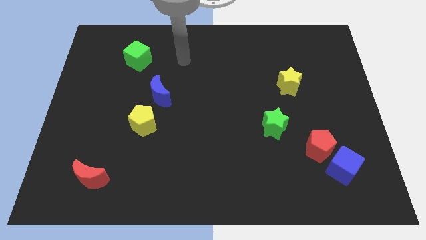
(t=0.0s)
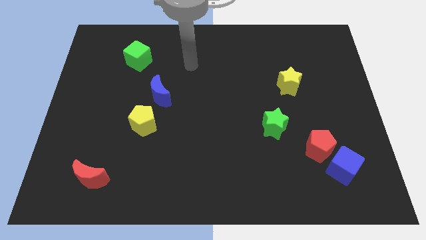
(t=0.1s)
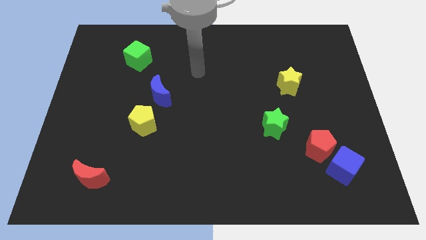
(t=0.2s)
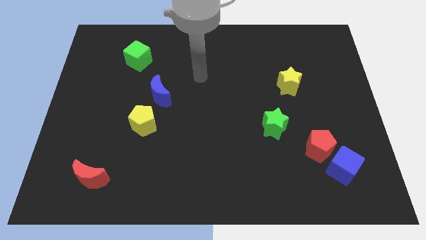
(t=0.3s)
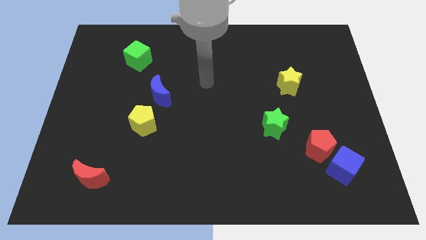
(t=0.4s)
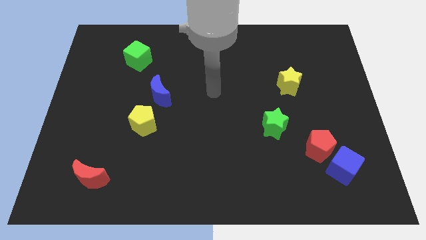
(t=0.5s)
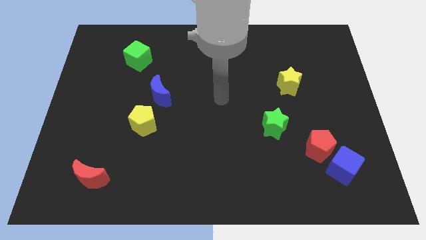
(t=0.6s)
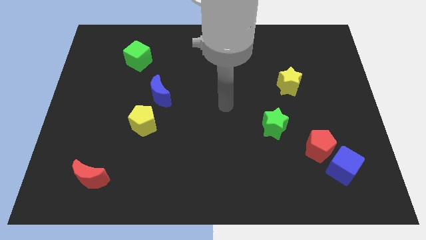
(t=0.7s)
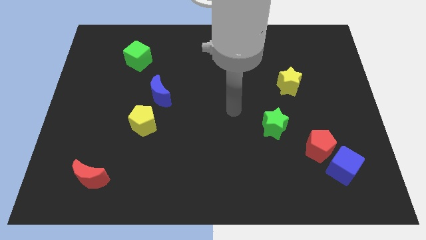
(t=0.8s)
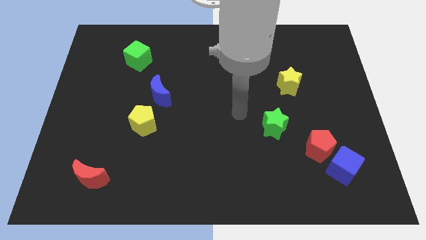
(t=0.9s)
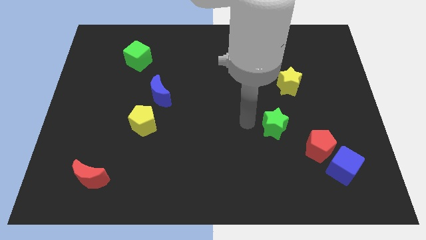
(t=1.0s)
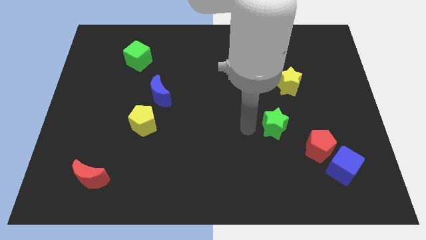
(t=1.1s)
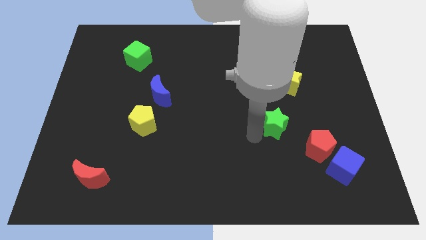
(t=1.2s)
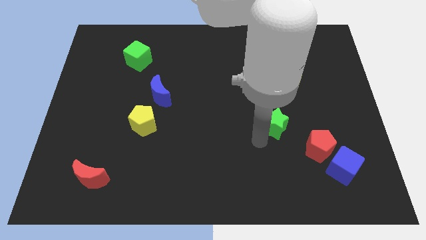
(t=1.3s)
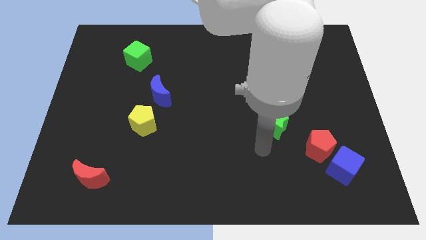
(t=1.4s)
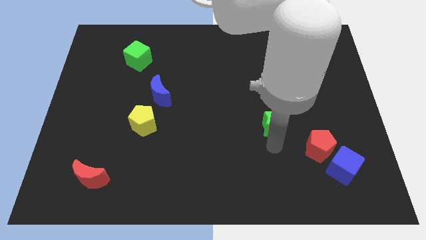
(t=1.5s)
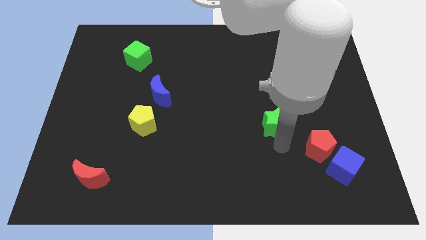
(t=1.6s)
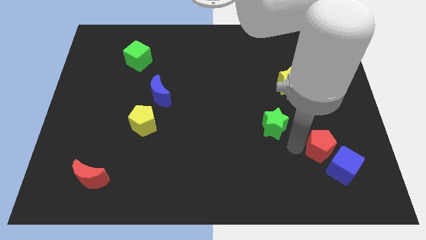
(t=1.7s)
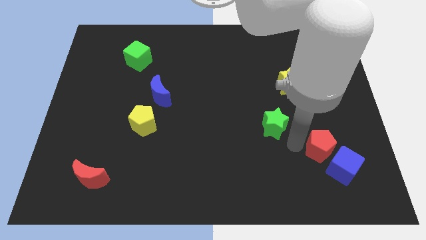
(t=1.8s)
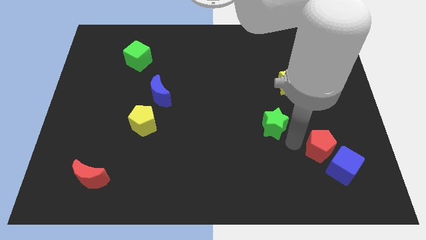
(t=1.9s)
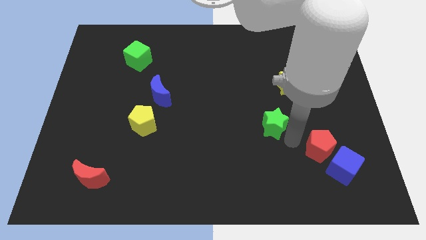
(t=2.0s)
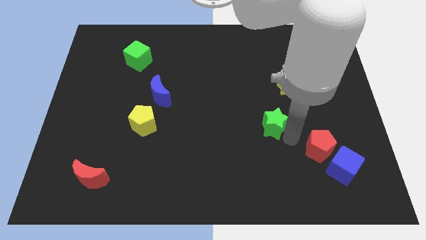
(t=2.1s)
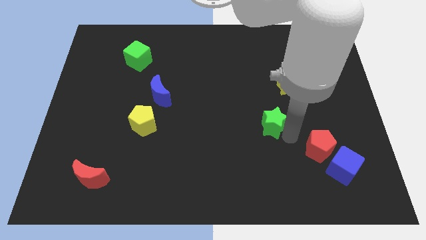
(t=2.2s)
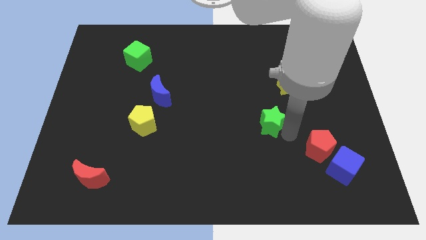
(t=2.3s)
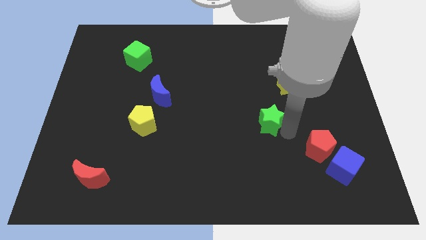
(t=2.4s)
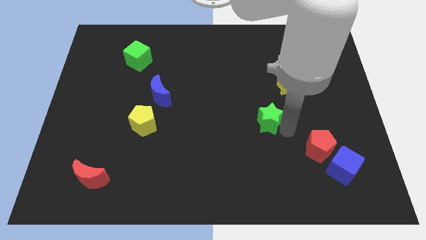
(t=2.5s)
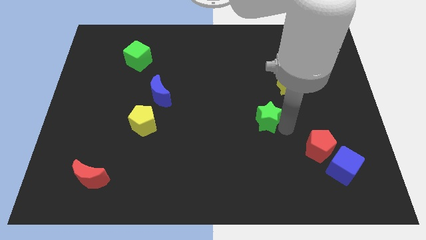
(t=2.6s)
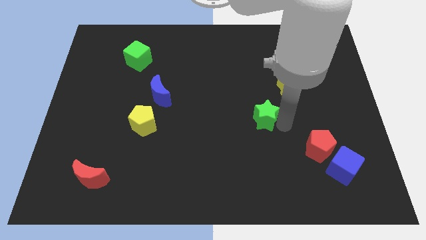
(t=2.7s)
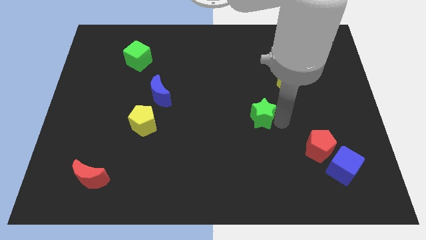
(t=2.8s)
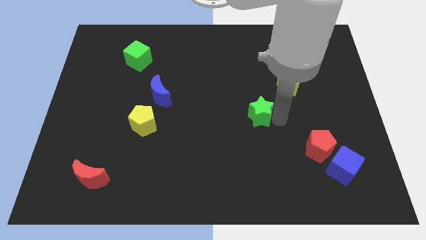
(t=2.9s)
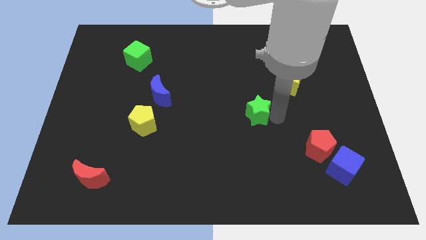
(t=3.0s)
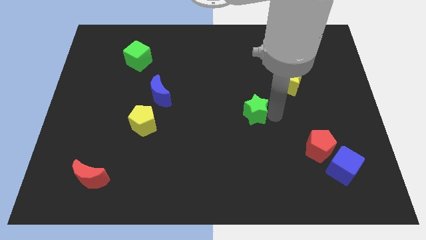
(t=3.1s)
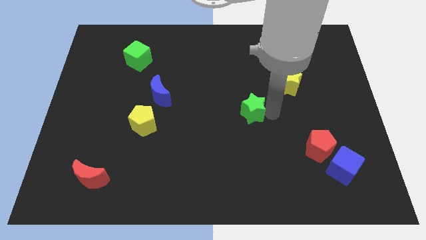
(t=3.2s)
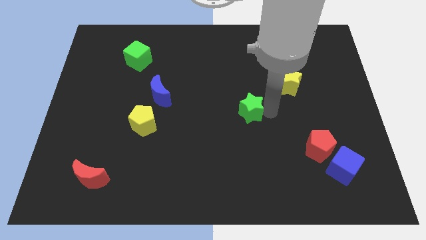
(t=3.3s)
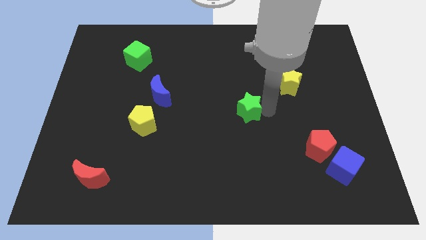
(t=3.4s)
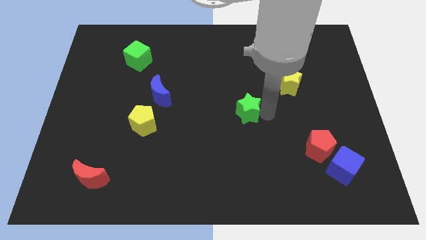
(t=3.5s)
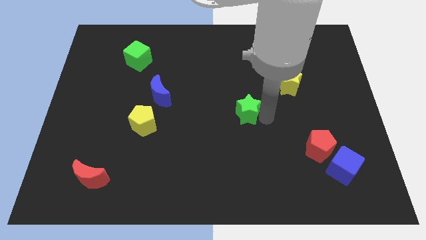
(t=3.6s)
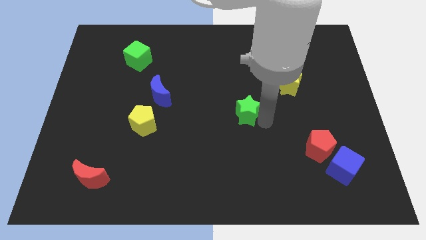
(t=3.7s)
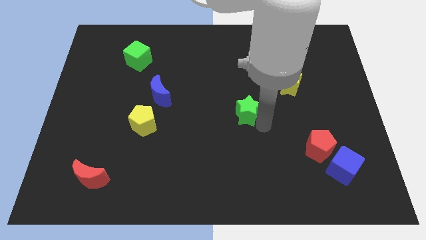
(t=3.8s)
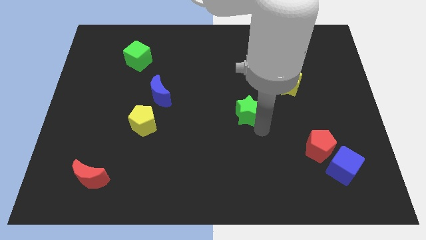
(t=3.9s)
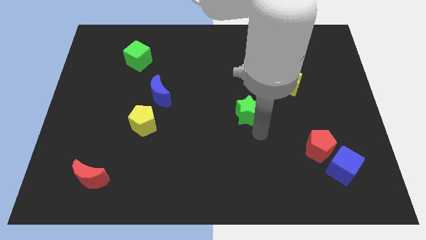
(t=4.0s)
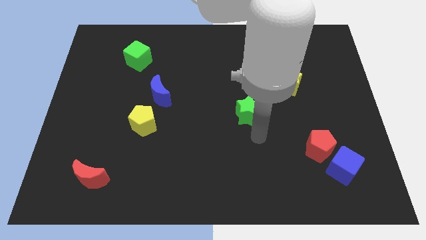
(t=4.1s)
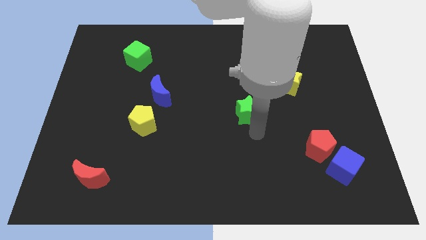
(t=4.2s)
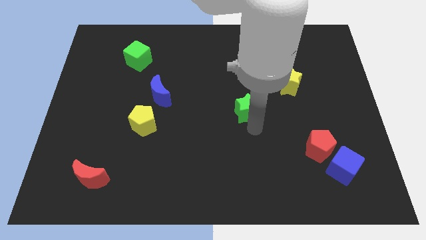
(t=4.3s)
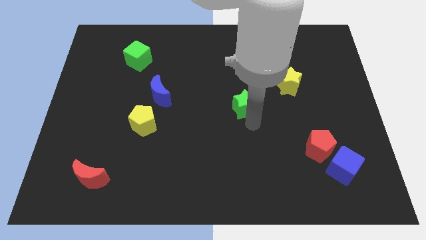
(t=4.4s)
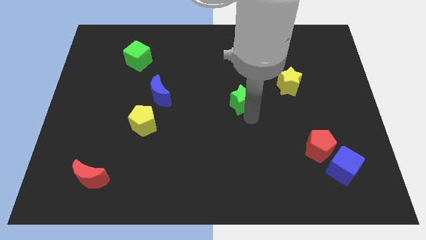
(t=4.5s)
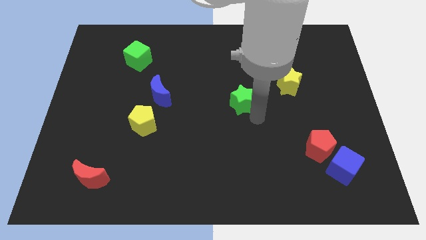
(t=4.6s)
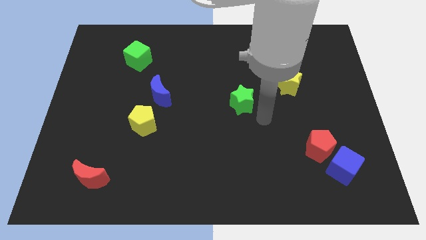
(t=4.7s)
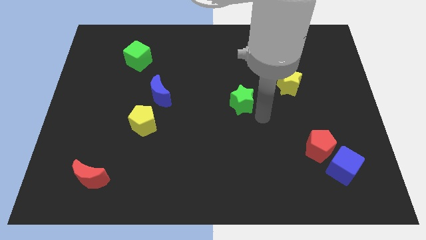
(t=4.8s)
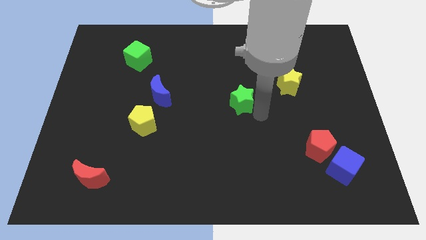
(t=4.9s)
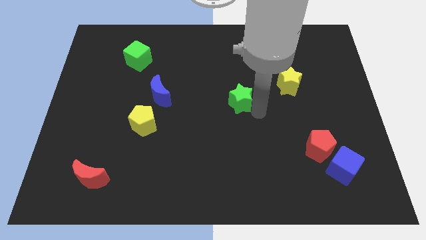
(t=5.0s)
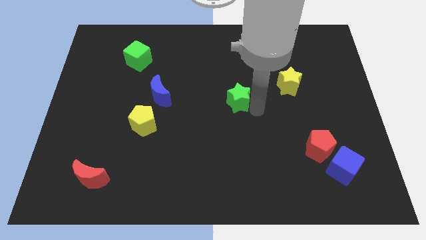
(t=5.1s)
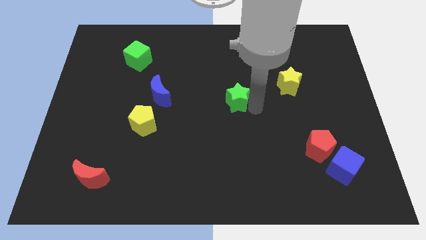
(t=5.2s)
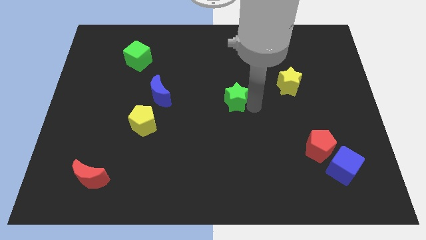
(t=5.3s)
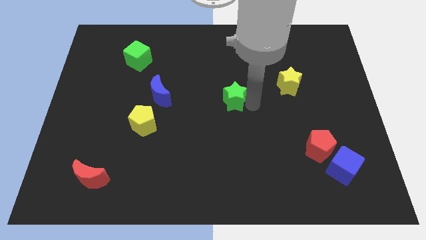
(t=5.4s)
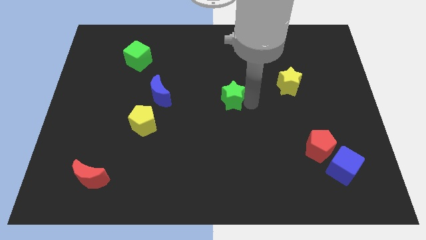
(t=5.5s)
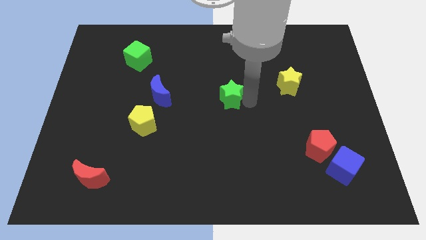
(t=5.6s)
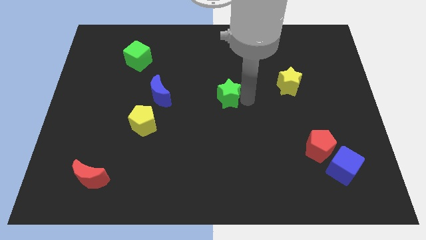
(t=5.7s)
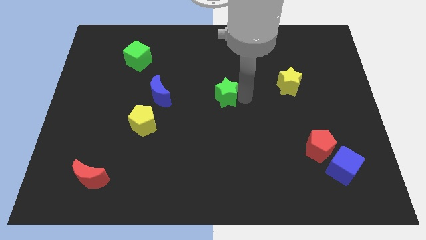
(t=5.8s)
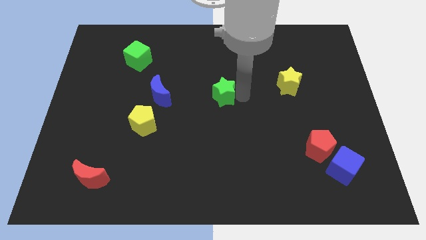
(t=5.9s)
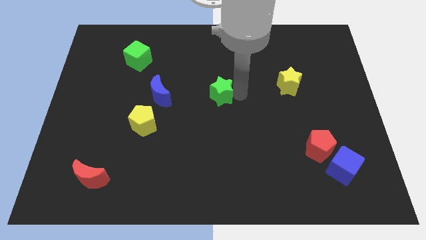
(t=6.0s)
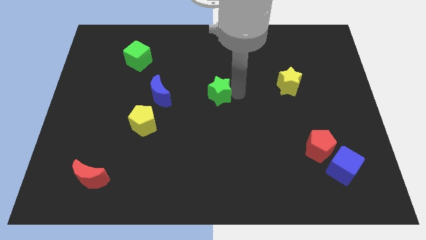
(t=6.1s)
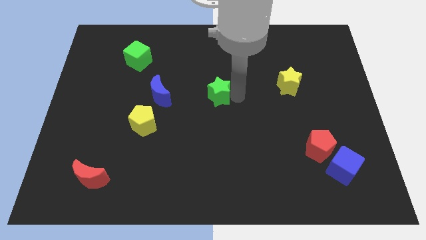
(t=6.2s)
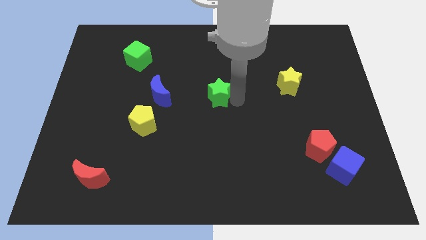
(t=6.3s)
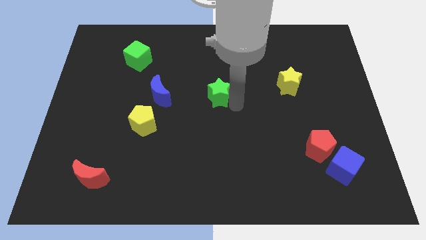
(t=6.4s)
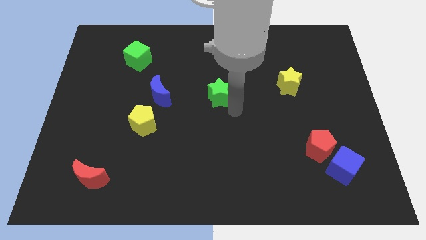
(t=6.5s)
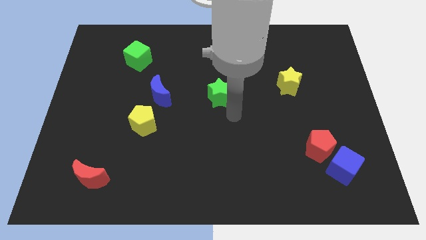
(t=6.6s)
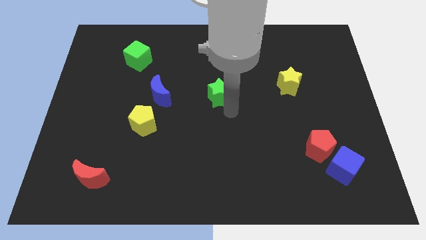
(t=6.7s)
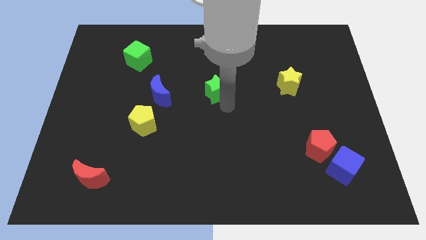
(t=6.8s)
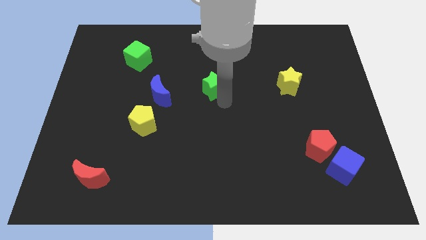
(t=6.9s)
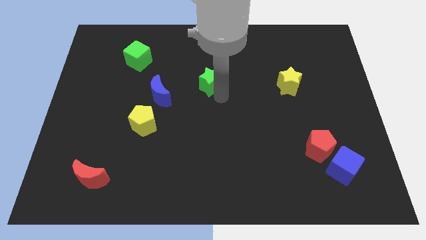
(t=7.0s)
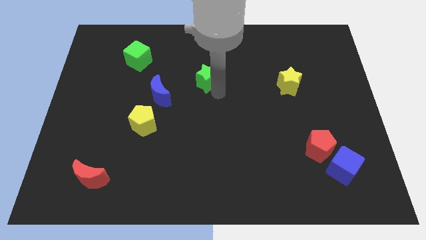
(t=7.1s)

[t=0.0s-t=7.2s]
move the green star diagonally up and left

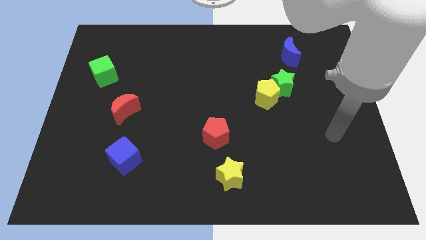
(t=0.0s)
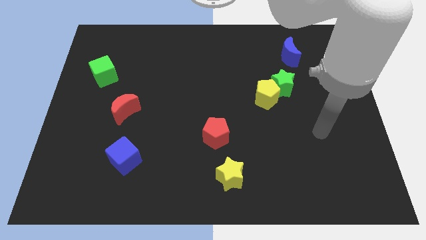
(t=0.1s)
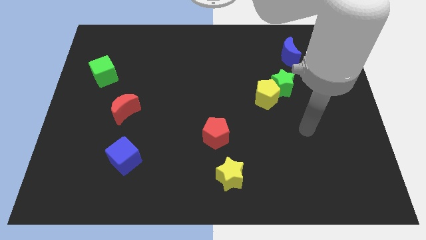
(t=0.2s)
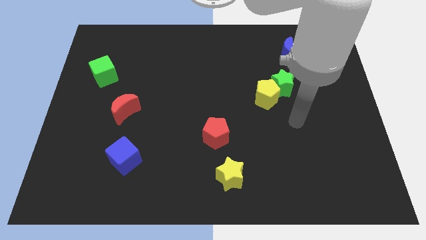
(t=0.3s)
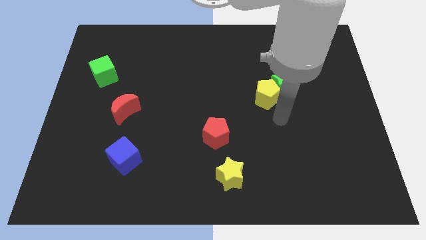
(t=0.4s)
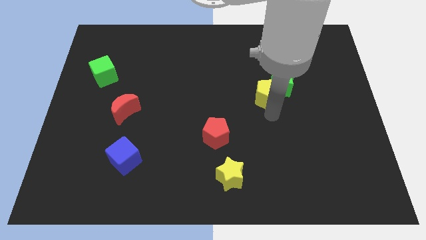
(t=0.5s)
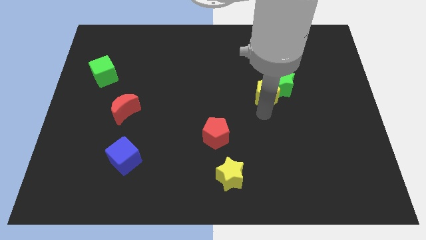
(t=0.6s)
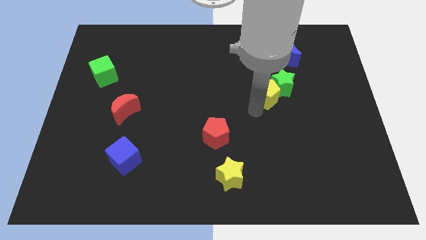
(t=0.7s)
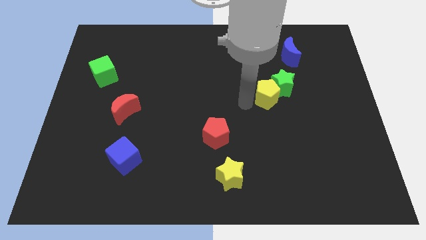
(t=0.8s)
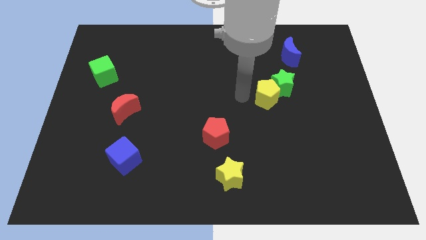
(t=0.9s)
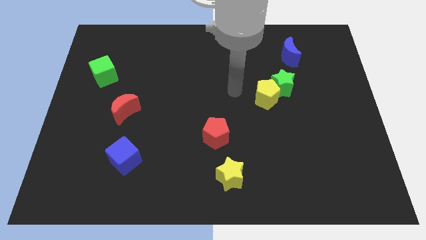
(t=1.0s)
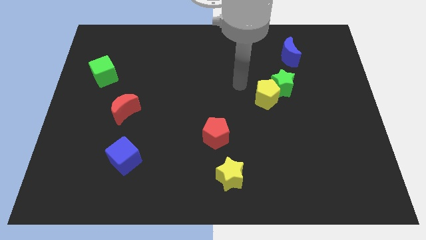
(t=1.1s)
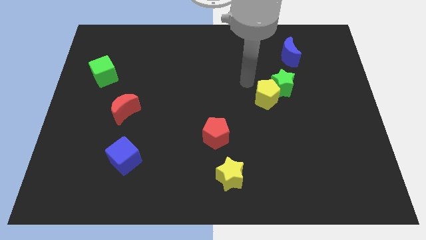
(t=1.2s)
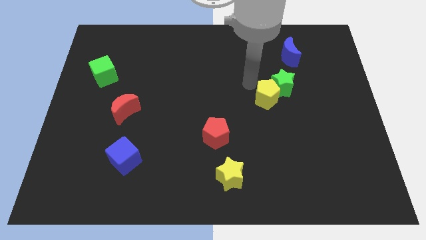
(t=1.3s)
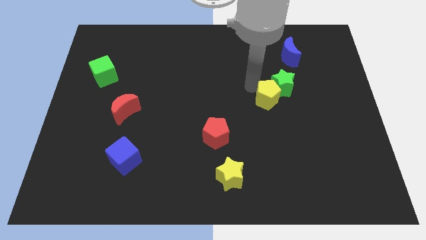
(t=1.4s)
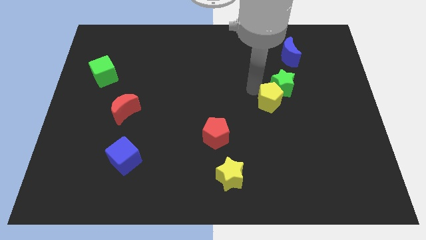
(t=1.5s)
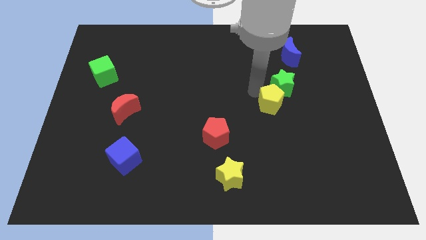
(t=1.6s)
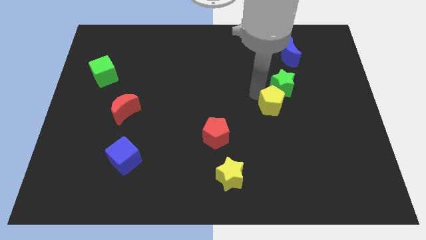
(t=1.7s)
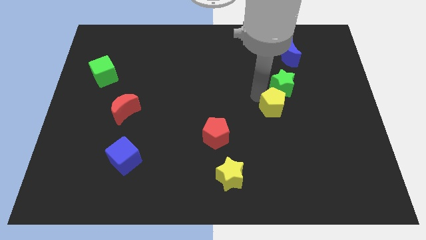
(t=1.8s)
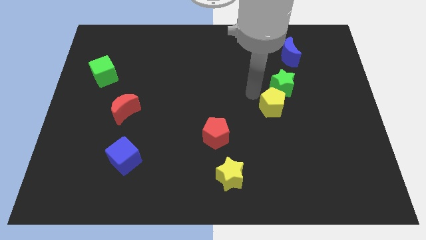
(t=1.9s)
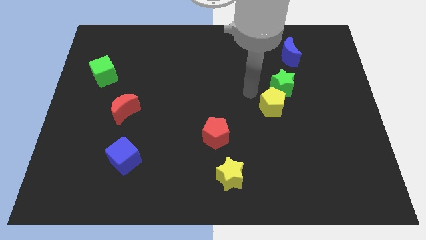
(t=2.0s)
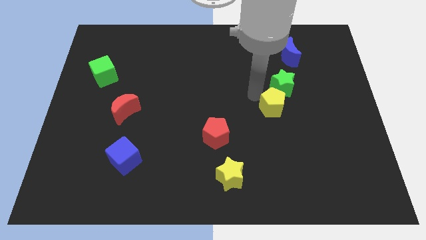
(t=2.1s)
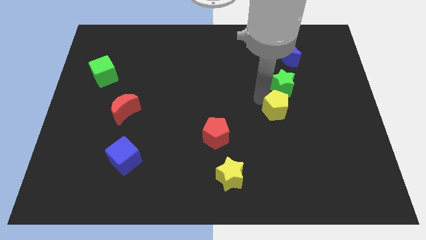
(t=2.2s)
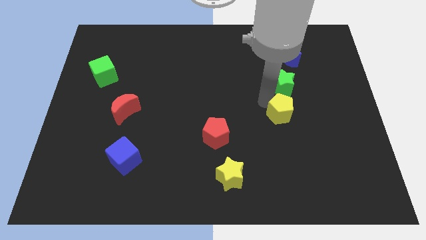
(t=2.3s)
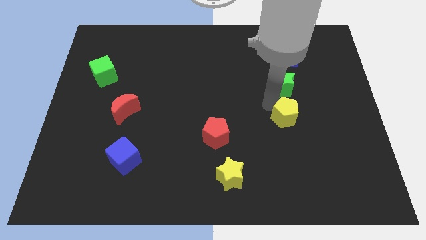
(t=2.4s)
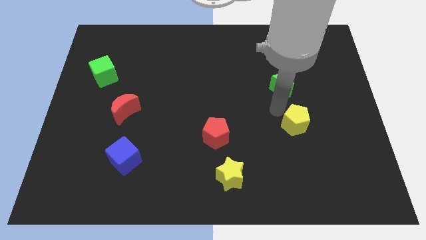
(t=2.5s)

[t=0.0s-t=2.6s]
slide the yellow pentagon down and then right slightly
